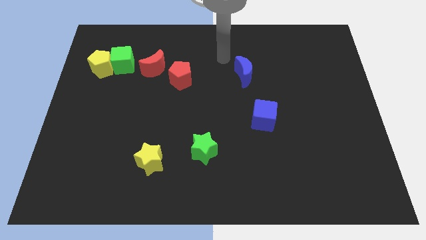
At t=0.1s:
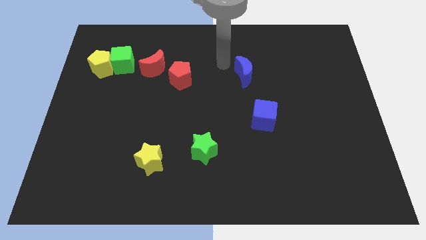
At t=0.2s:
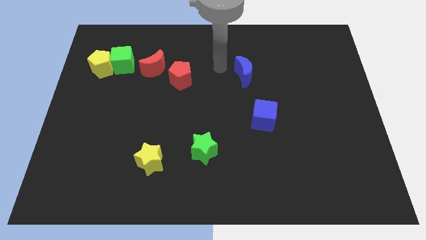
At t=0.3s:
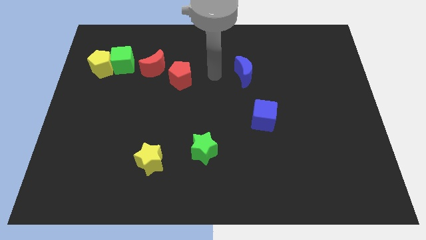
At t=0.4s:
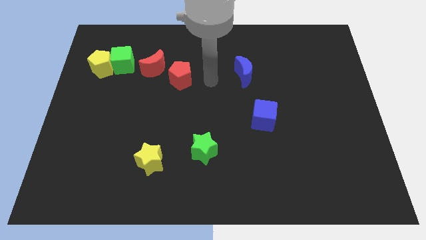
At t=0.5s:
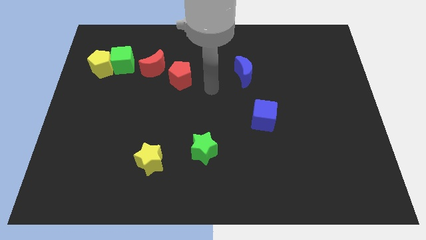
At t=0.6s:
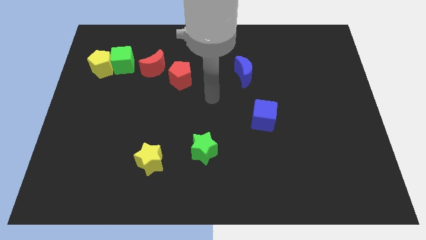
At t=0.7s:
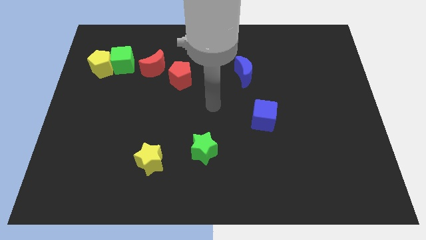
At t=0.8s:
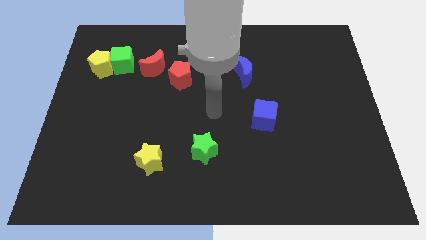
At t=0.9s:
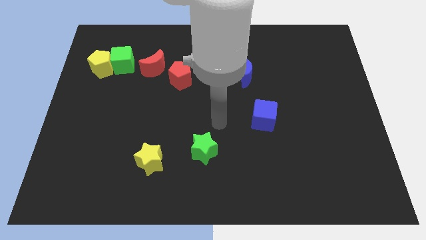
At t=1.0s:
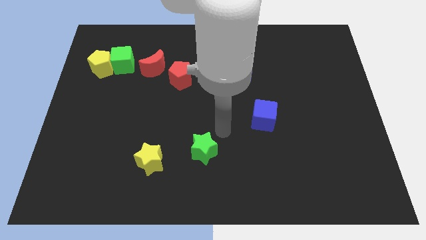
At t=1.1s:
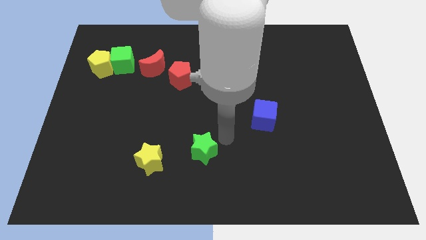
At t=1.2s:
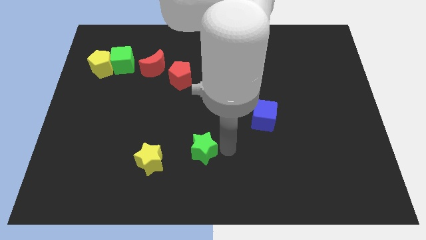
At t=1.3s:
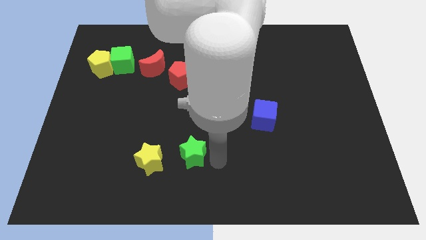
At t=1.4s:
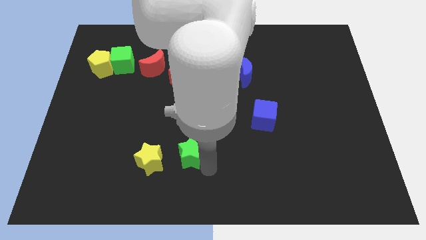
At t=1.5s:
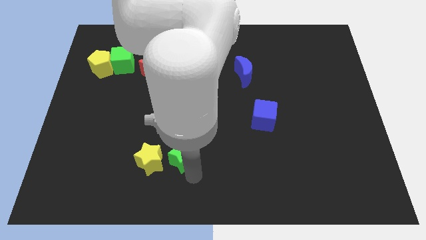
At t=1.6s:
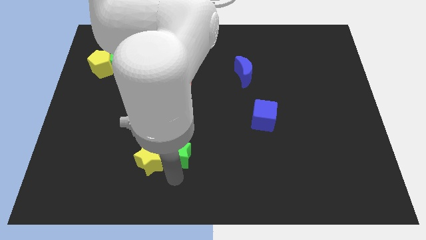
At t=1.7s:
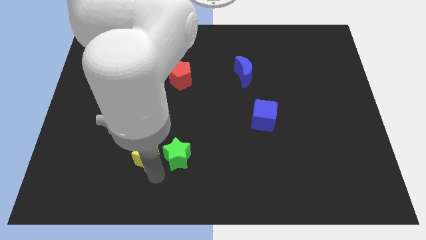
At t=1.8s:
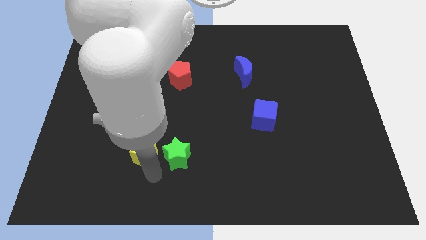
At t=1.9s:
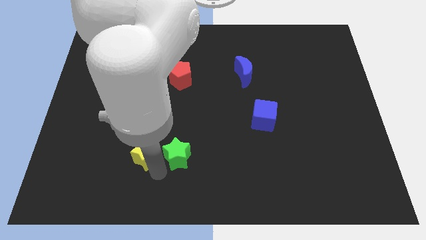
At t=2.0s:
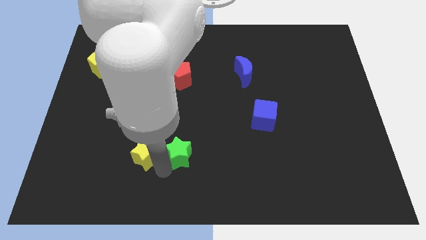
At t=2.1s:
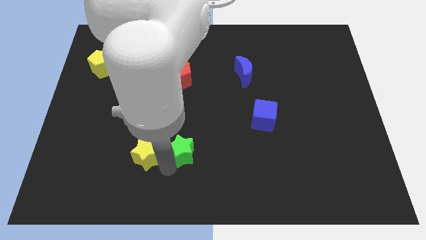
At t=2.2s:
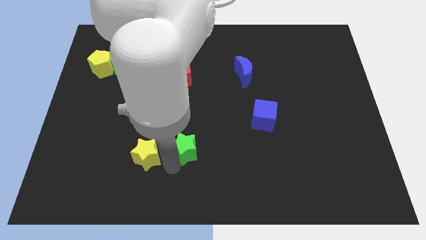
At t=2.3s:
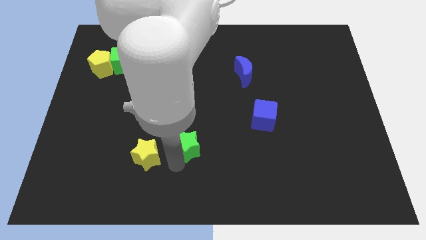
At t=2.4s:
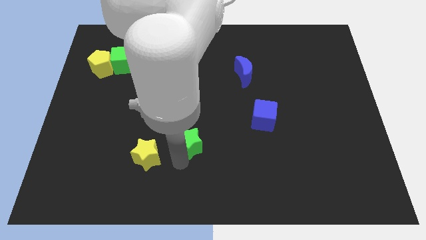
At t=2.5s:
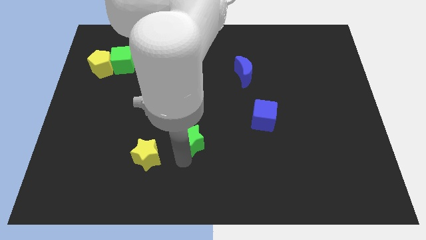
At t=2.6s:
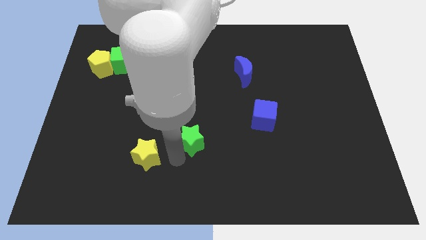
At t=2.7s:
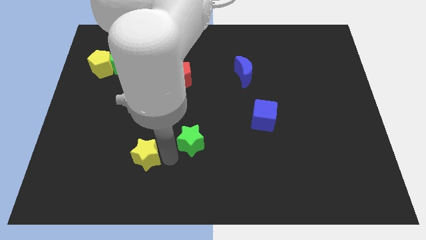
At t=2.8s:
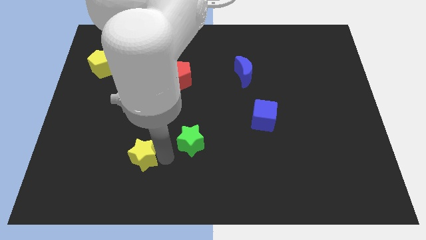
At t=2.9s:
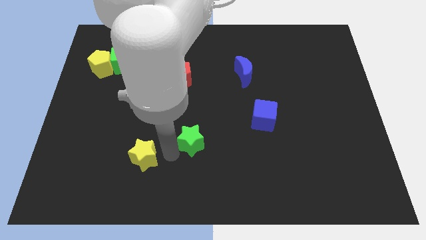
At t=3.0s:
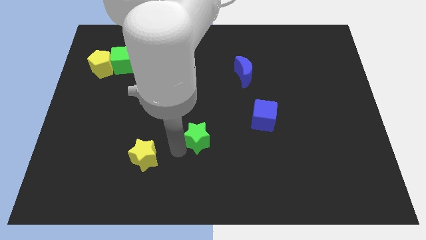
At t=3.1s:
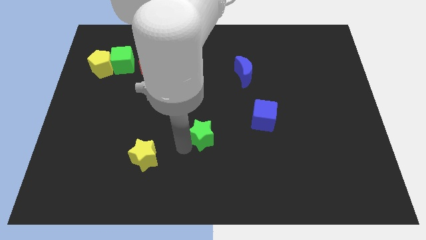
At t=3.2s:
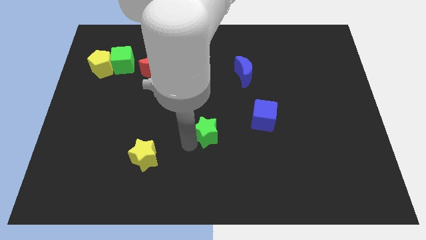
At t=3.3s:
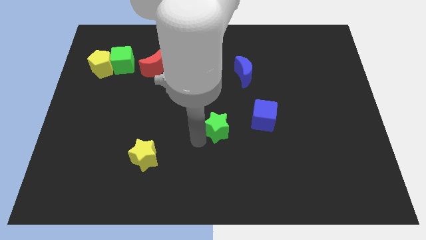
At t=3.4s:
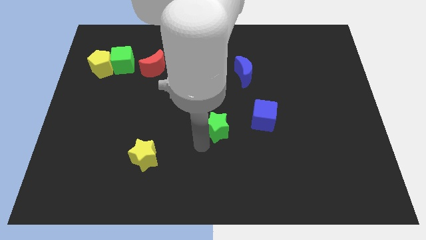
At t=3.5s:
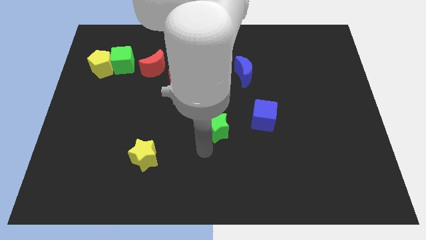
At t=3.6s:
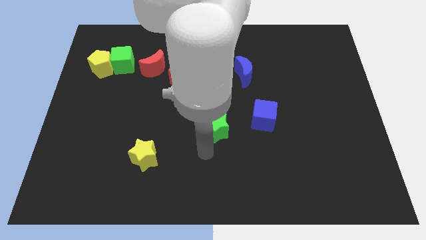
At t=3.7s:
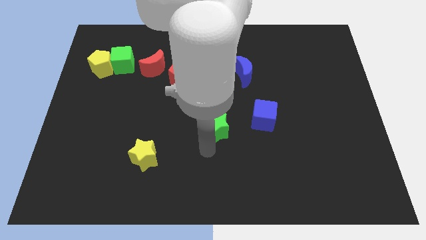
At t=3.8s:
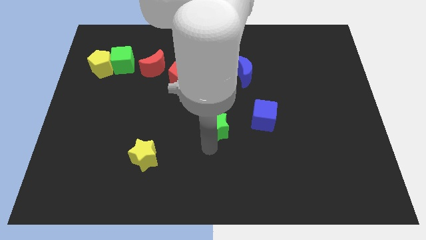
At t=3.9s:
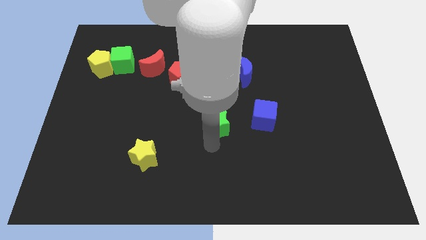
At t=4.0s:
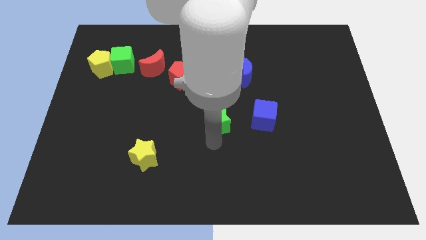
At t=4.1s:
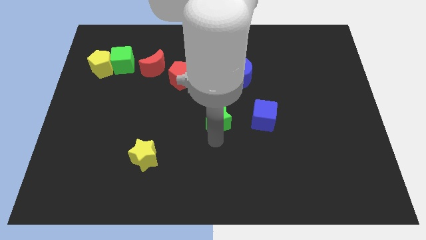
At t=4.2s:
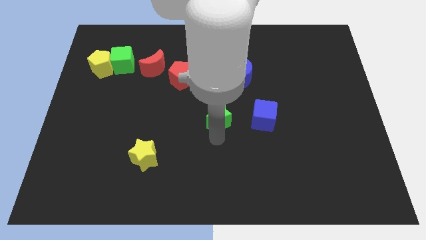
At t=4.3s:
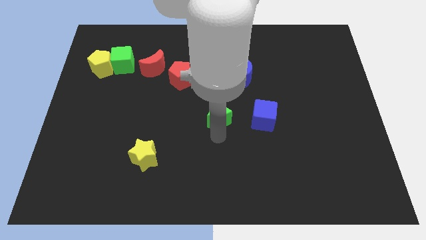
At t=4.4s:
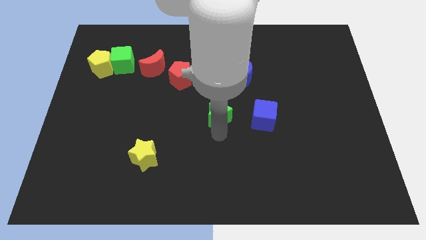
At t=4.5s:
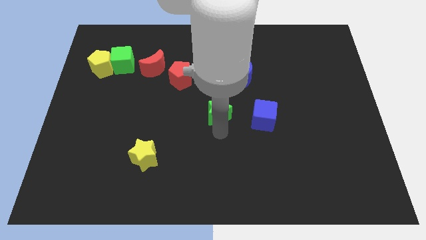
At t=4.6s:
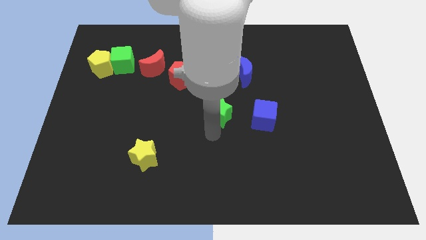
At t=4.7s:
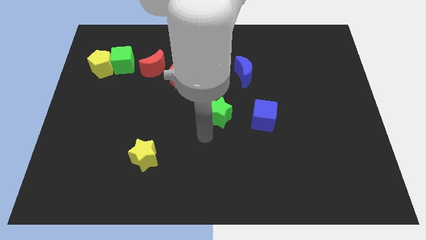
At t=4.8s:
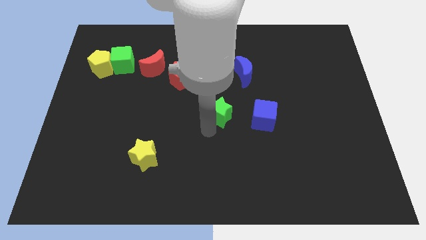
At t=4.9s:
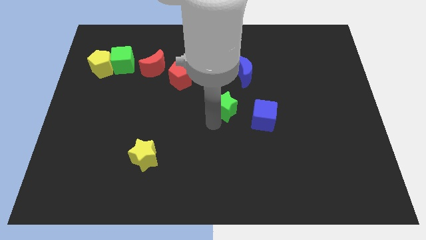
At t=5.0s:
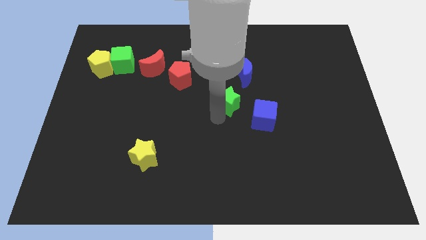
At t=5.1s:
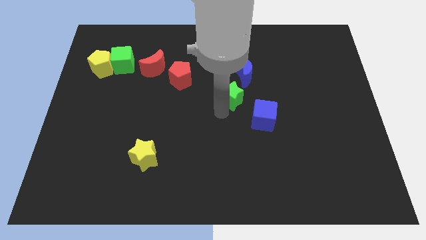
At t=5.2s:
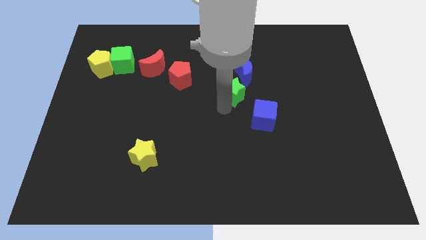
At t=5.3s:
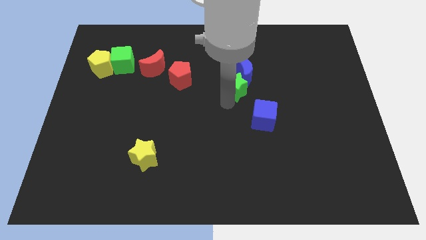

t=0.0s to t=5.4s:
put the green star towards the blue moon
